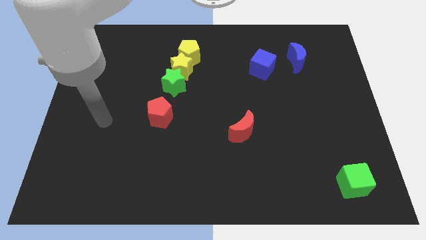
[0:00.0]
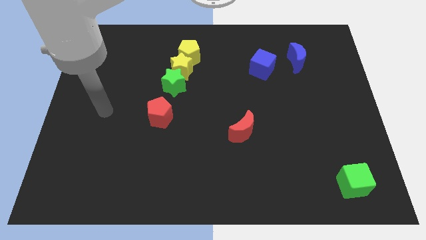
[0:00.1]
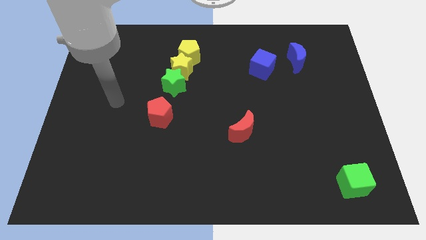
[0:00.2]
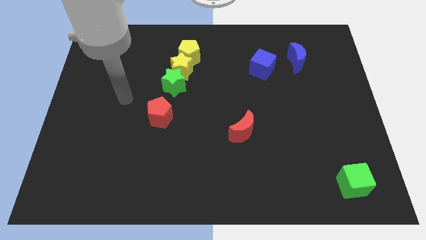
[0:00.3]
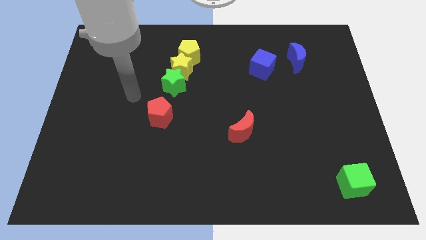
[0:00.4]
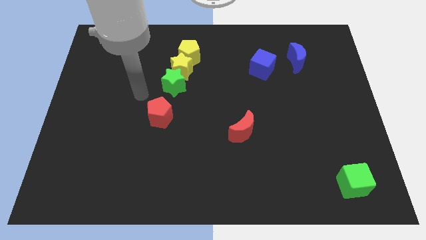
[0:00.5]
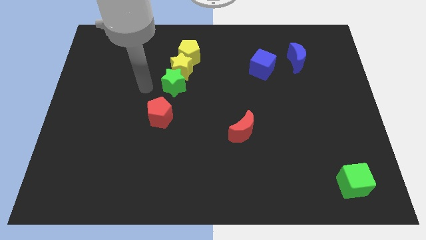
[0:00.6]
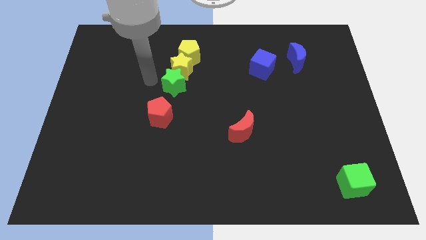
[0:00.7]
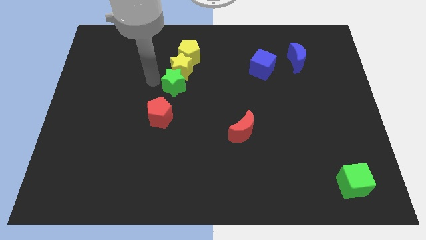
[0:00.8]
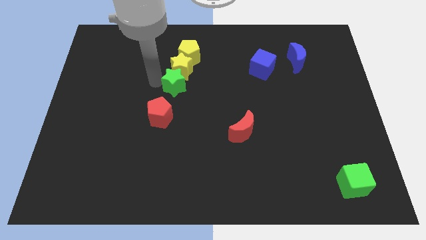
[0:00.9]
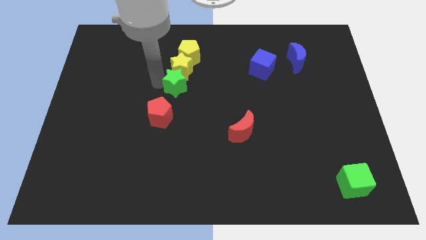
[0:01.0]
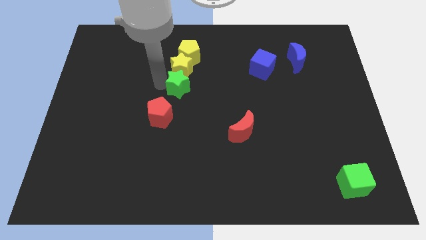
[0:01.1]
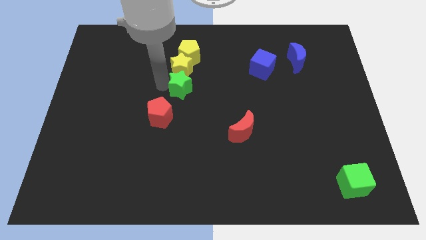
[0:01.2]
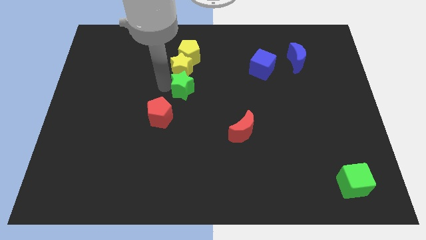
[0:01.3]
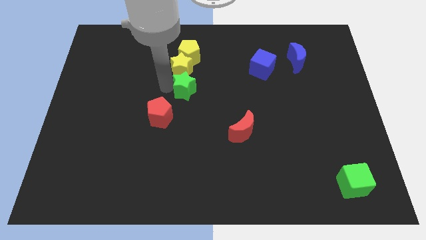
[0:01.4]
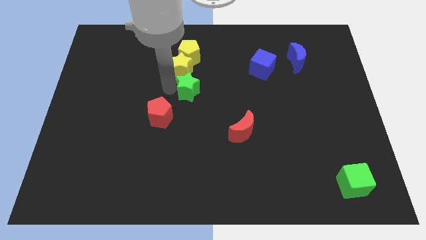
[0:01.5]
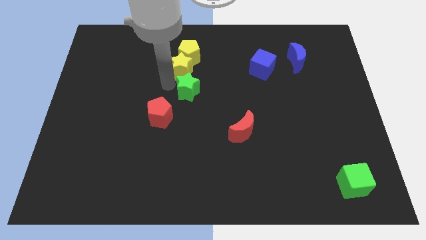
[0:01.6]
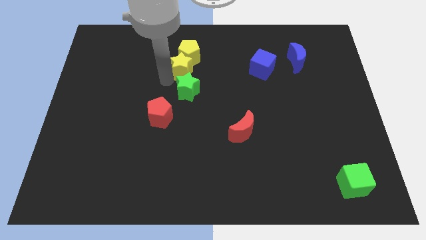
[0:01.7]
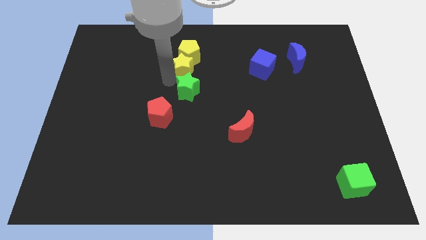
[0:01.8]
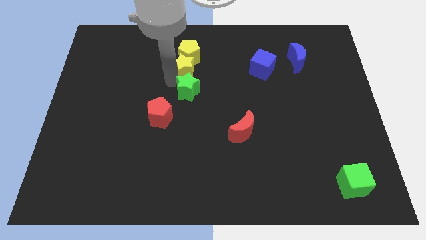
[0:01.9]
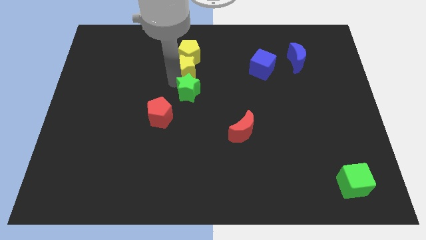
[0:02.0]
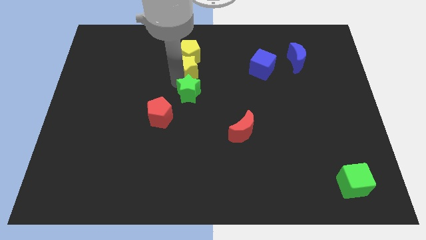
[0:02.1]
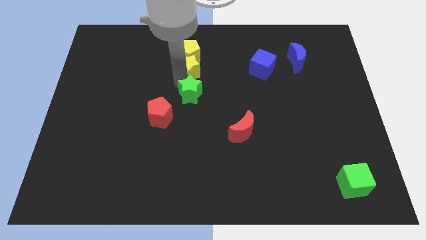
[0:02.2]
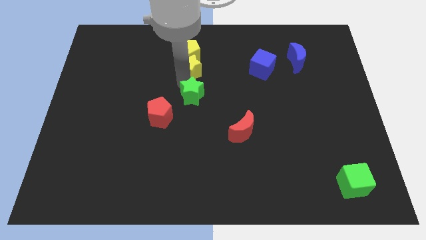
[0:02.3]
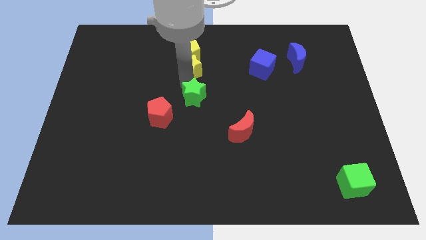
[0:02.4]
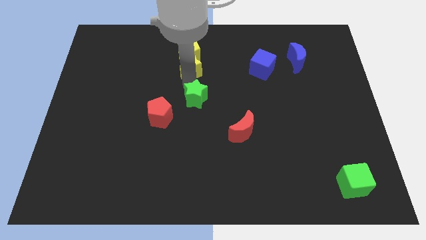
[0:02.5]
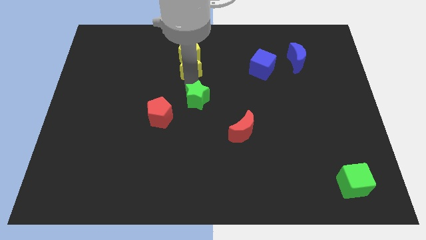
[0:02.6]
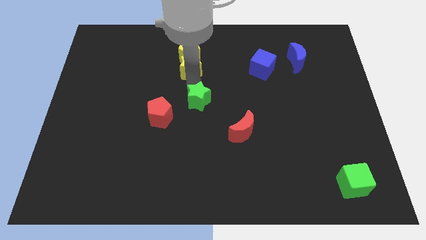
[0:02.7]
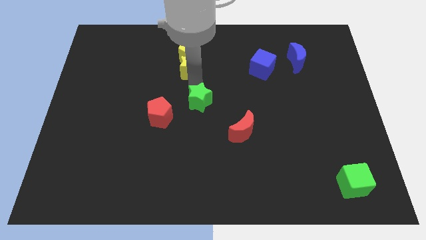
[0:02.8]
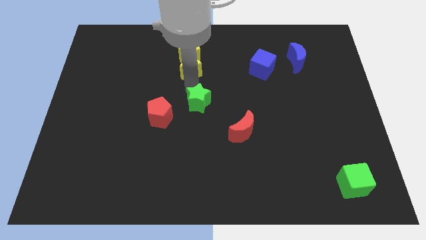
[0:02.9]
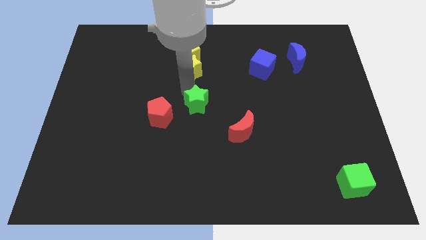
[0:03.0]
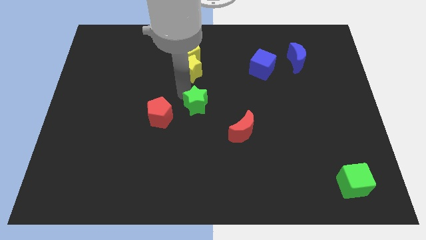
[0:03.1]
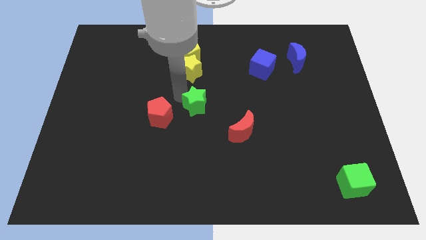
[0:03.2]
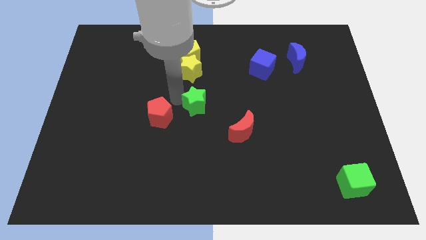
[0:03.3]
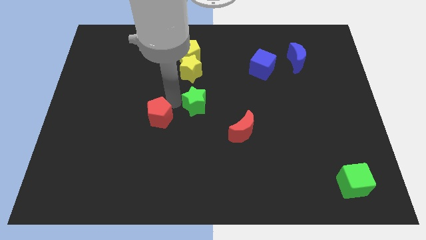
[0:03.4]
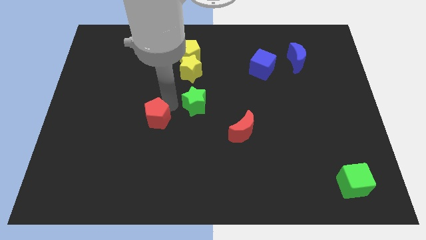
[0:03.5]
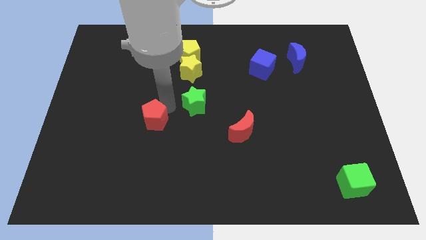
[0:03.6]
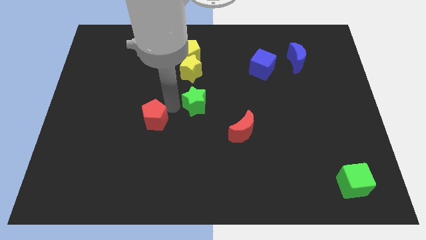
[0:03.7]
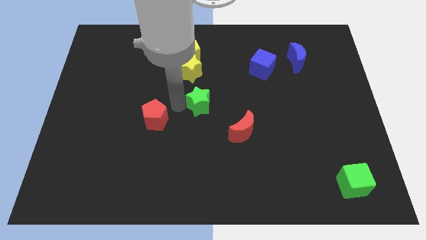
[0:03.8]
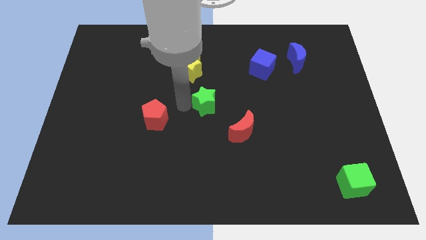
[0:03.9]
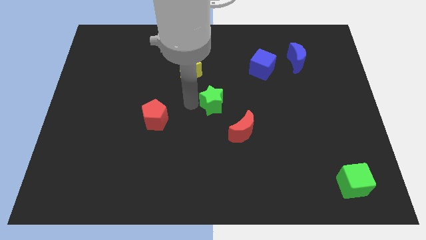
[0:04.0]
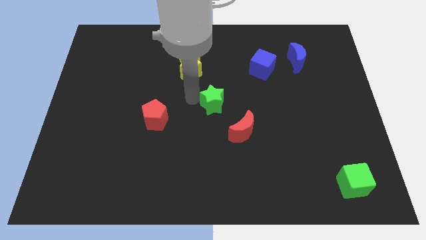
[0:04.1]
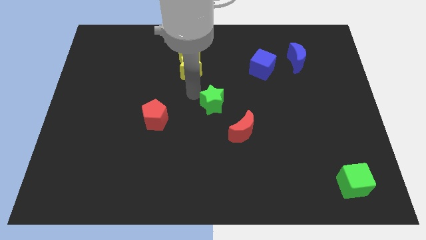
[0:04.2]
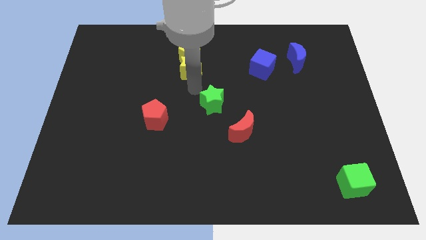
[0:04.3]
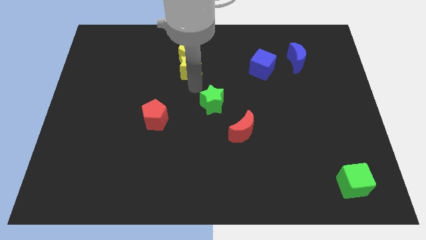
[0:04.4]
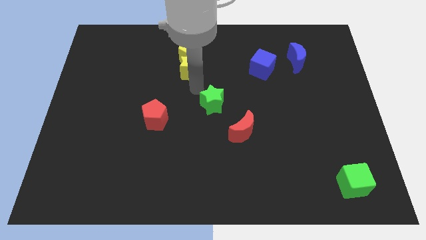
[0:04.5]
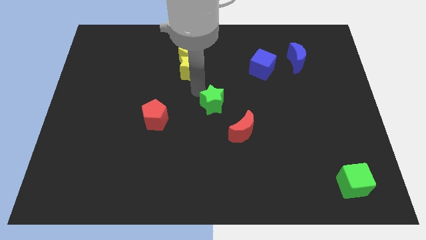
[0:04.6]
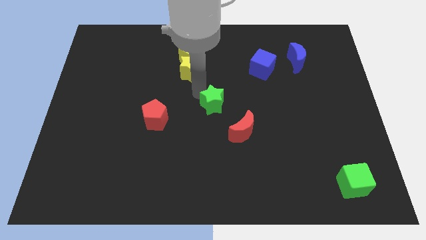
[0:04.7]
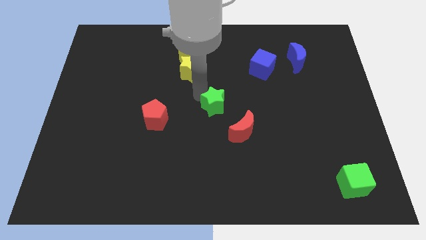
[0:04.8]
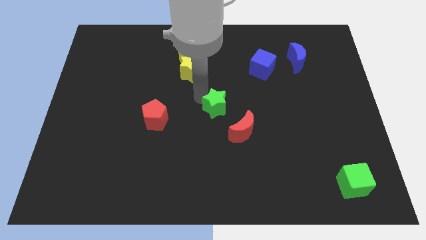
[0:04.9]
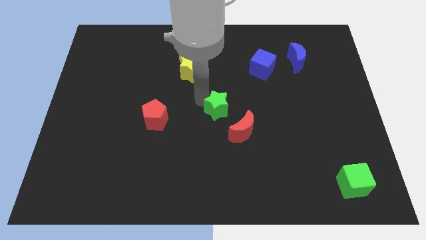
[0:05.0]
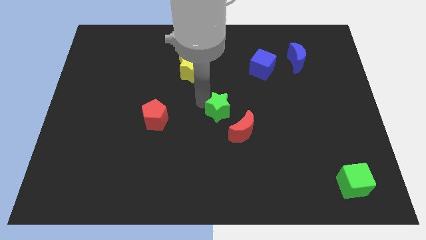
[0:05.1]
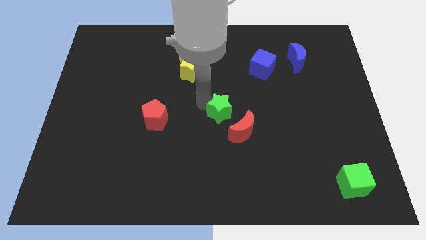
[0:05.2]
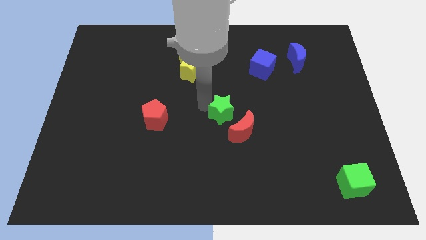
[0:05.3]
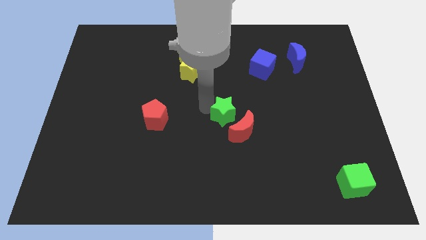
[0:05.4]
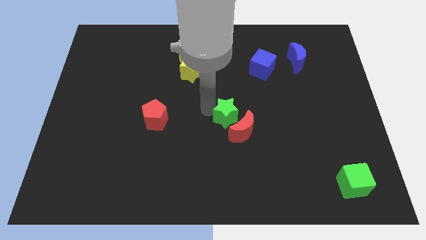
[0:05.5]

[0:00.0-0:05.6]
put the green star next to the red moon

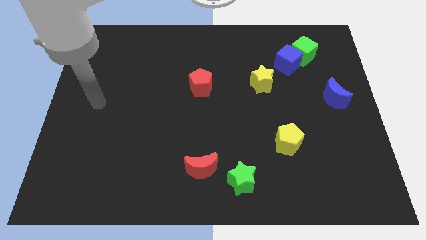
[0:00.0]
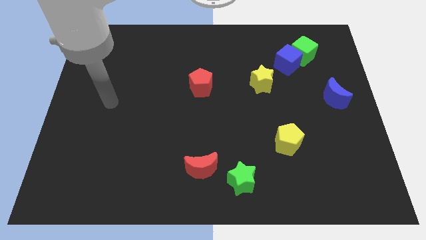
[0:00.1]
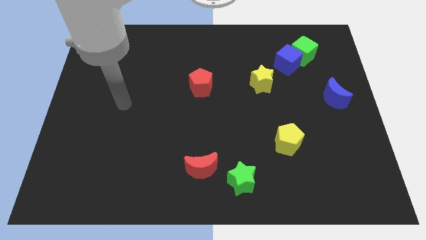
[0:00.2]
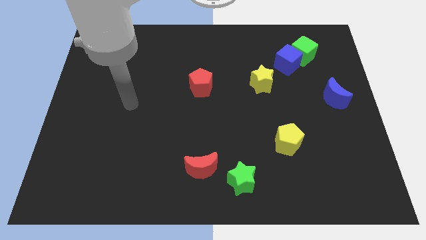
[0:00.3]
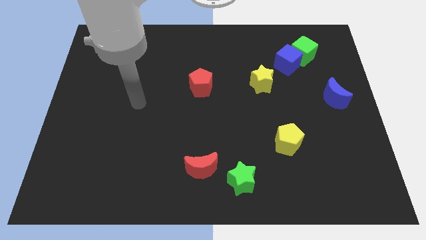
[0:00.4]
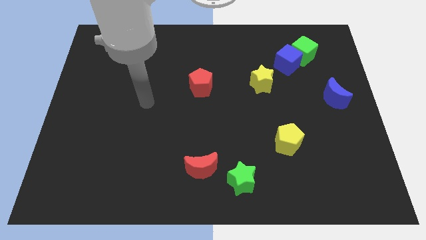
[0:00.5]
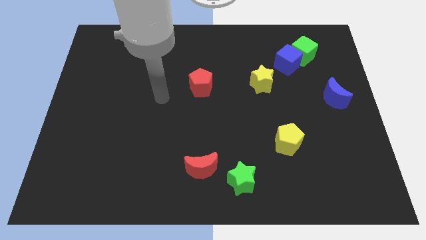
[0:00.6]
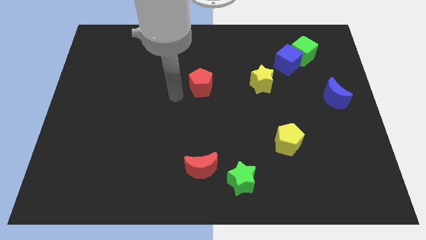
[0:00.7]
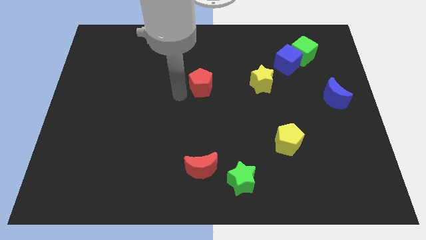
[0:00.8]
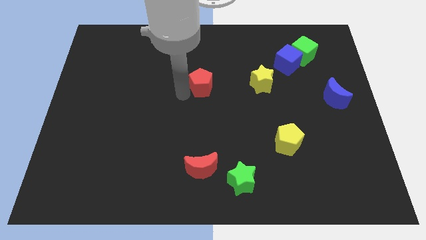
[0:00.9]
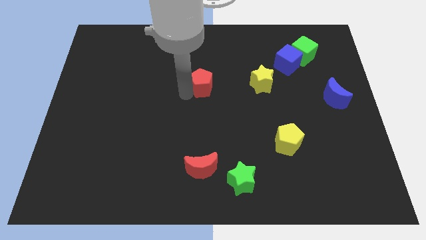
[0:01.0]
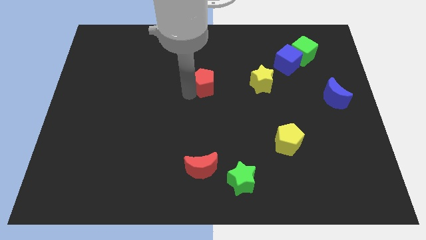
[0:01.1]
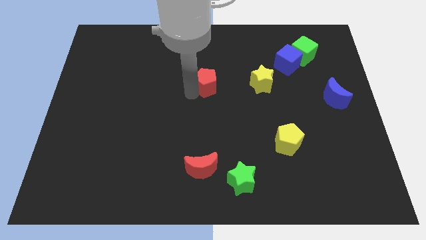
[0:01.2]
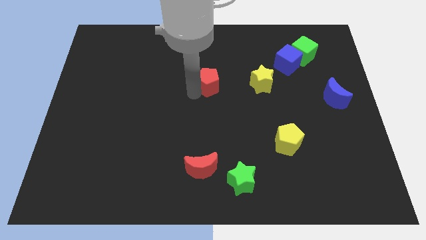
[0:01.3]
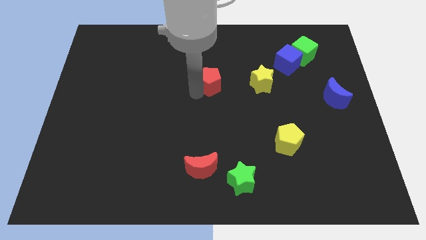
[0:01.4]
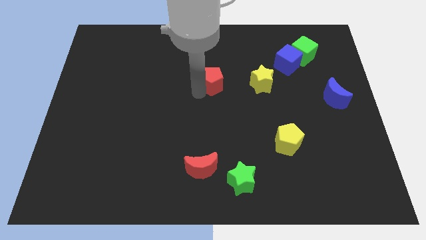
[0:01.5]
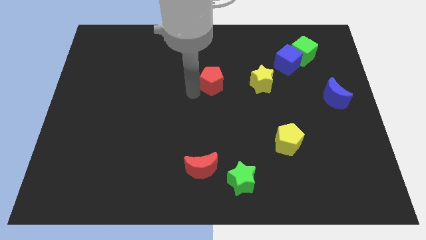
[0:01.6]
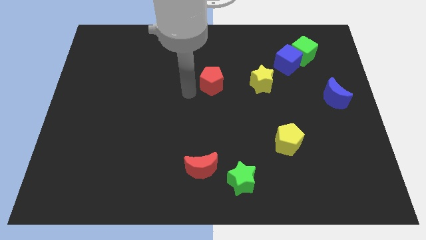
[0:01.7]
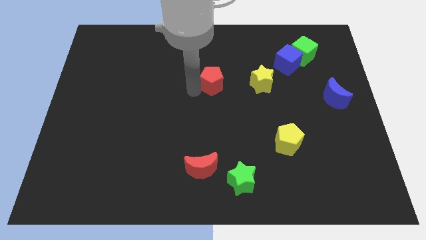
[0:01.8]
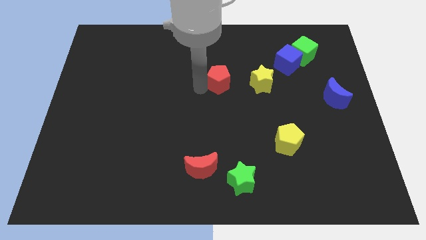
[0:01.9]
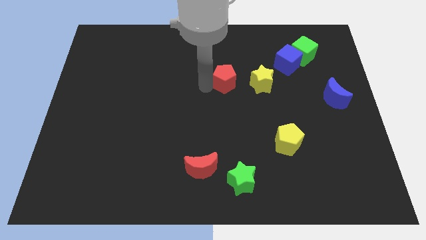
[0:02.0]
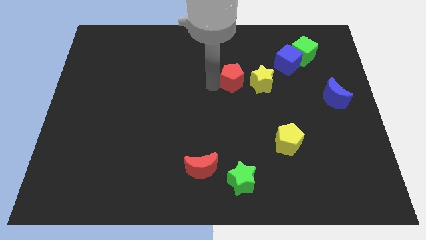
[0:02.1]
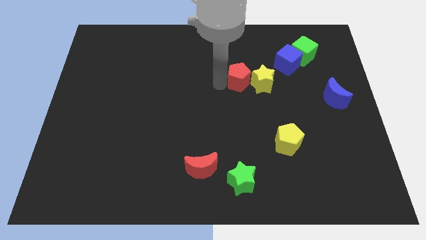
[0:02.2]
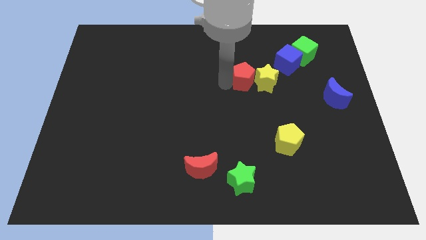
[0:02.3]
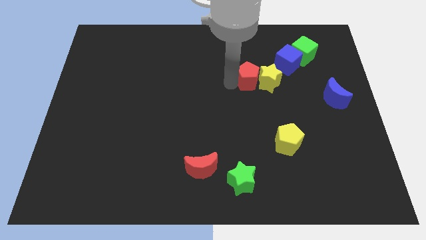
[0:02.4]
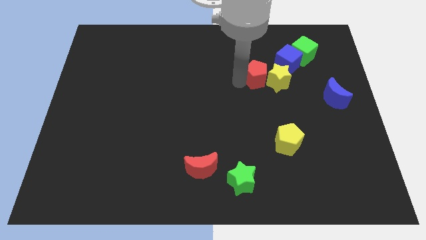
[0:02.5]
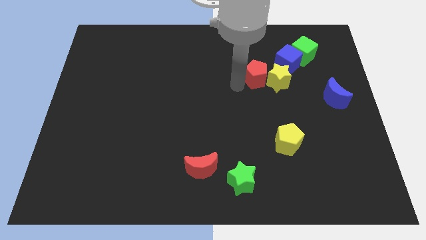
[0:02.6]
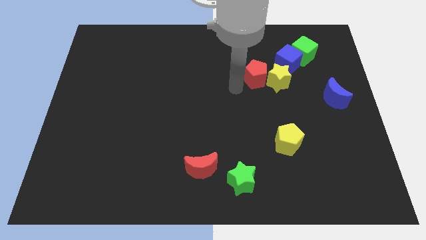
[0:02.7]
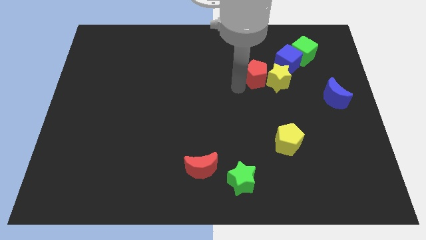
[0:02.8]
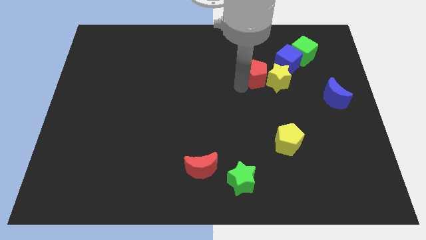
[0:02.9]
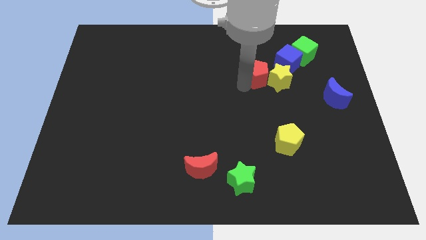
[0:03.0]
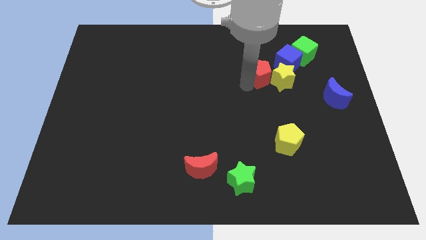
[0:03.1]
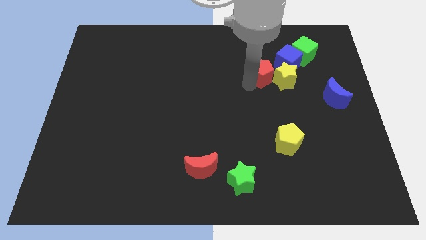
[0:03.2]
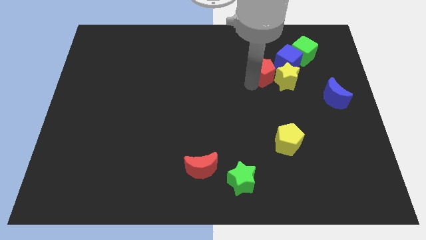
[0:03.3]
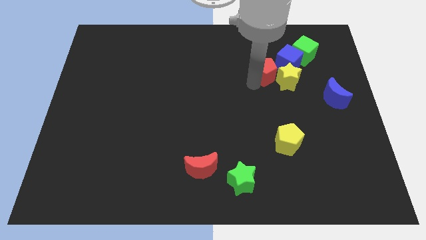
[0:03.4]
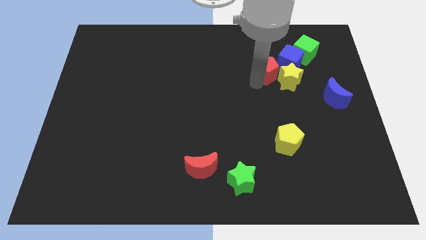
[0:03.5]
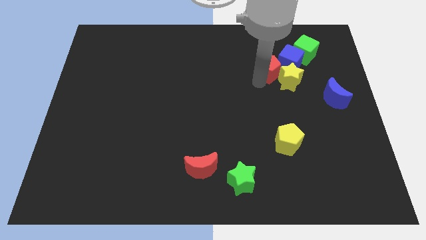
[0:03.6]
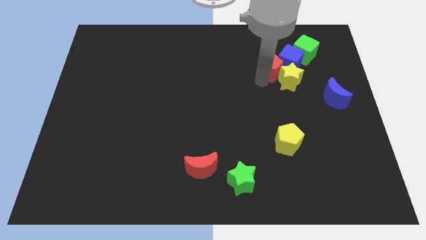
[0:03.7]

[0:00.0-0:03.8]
move the red pentagon next to the blue cube
